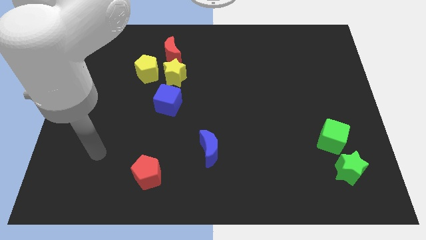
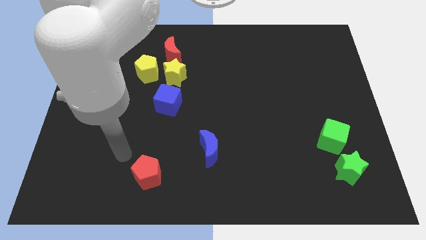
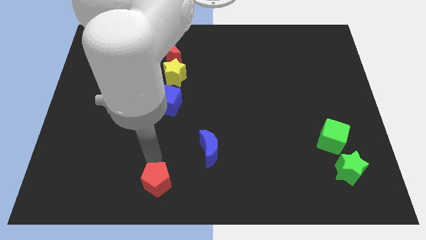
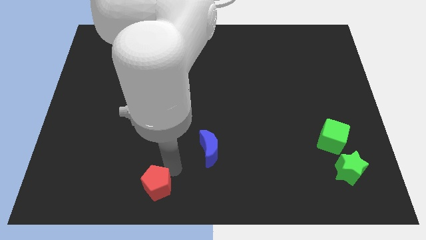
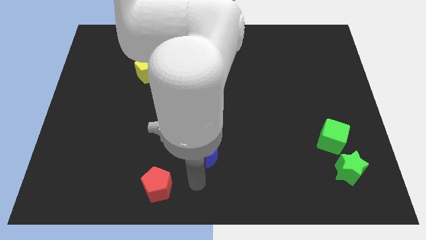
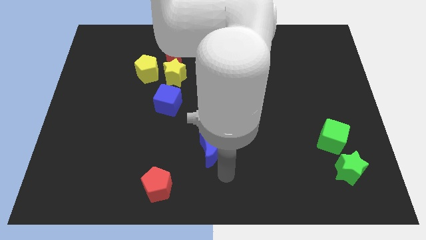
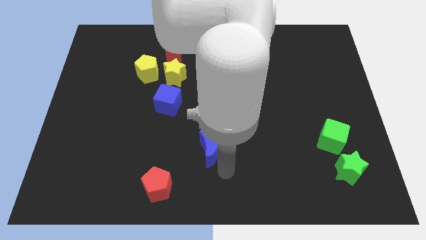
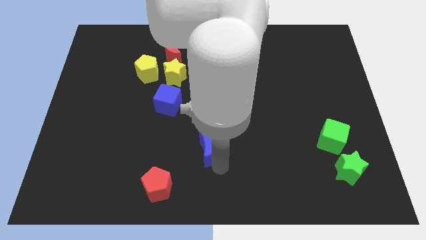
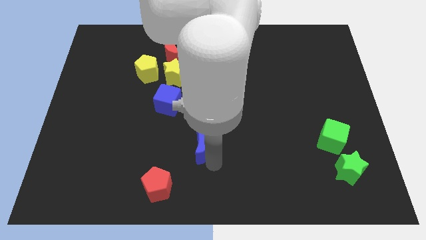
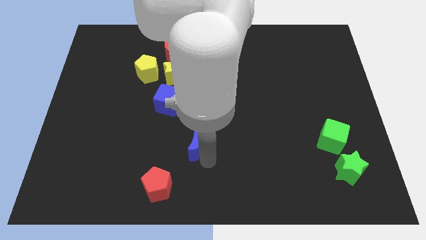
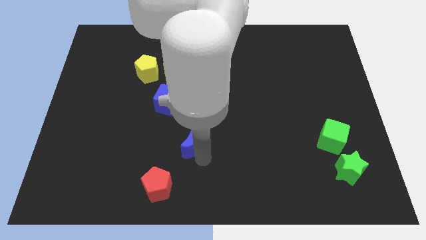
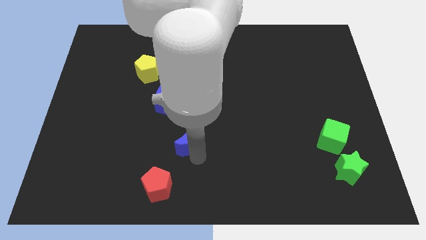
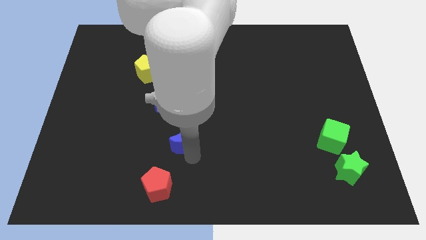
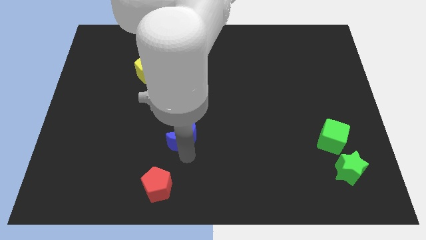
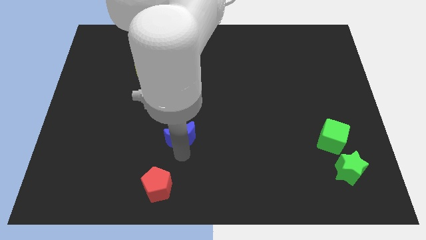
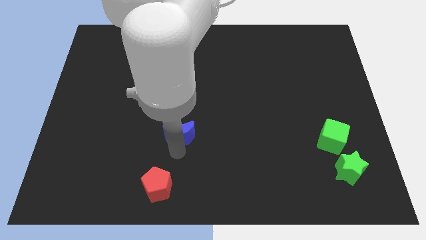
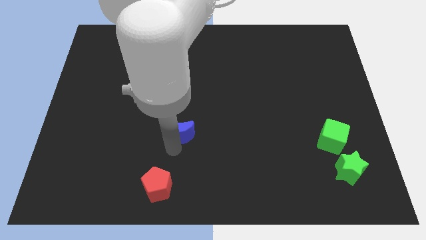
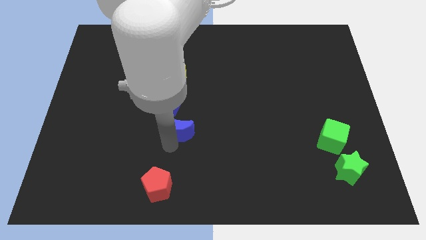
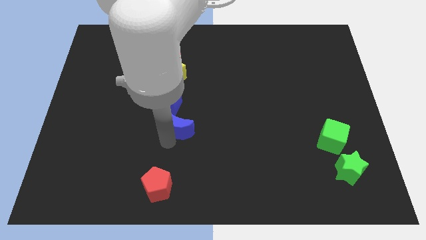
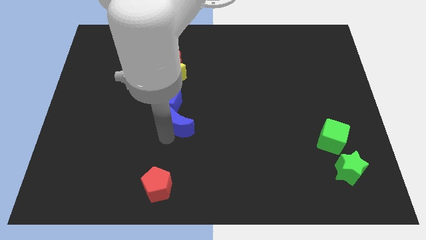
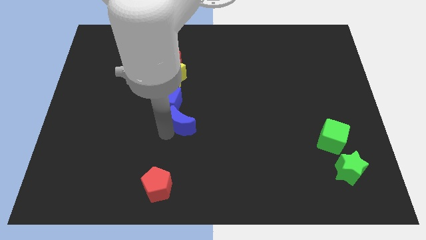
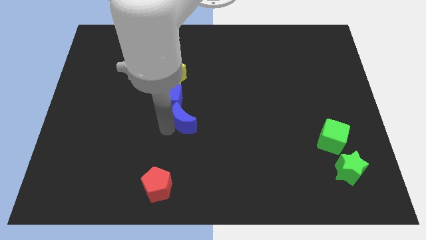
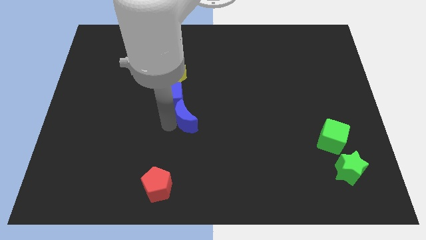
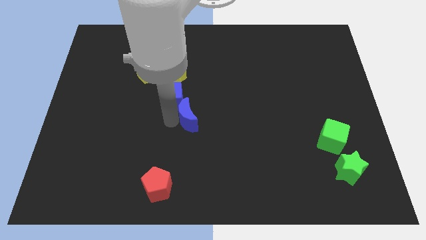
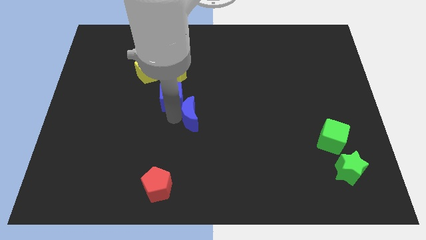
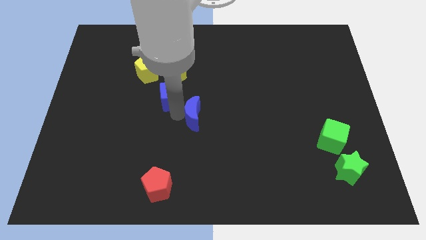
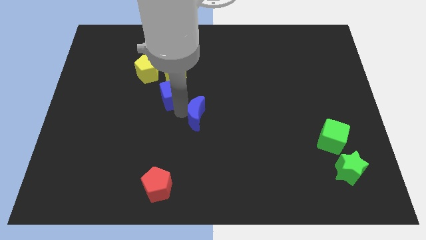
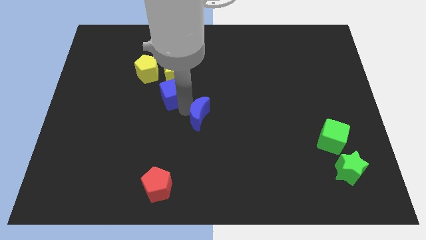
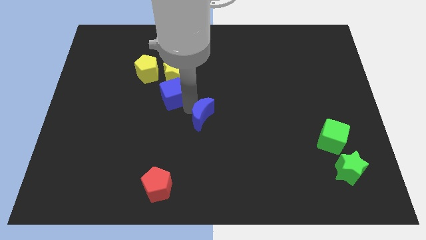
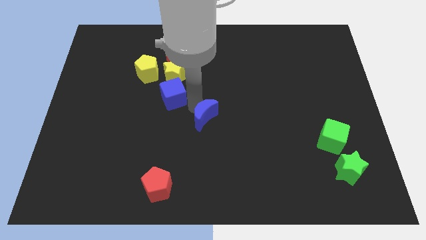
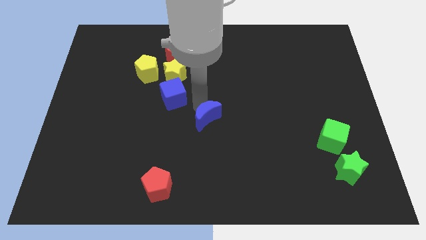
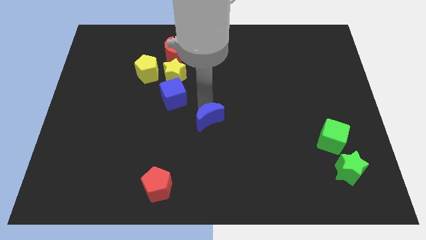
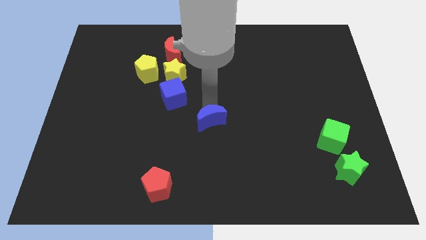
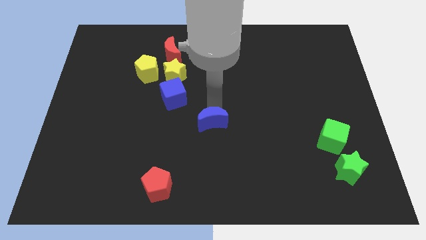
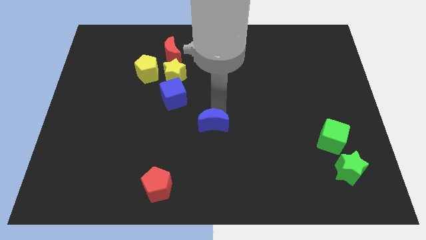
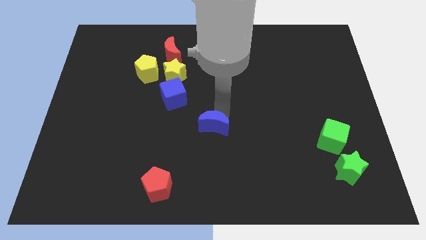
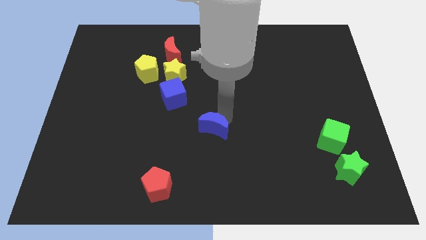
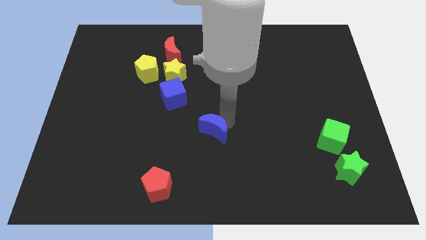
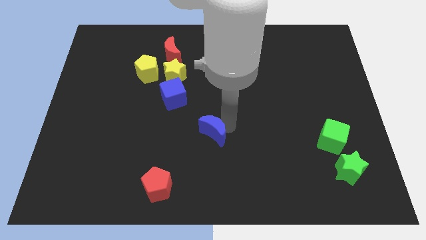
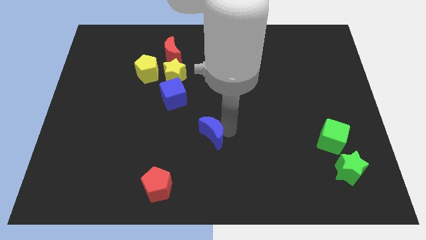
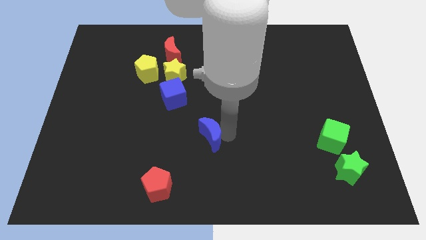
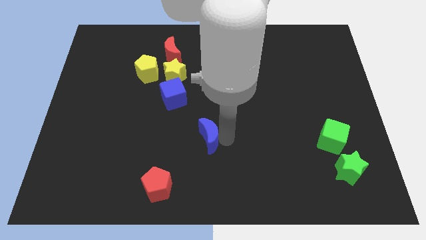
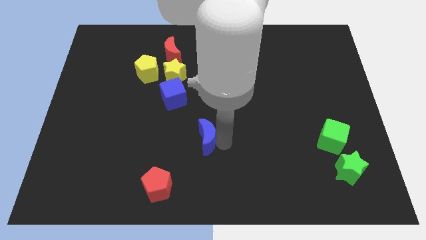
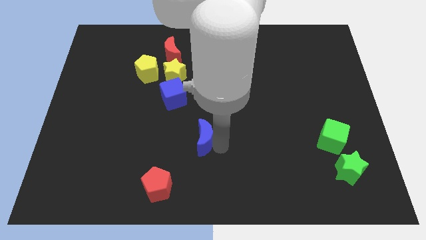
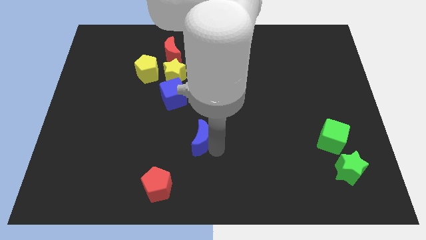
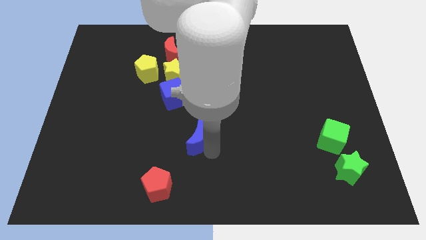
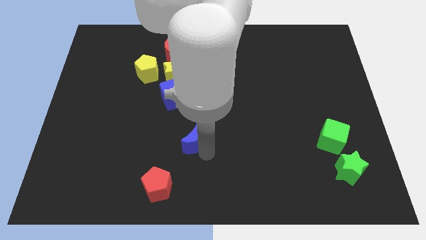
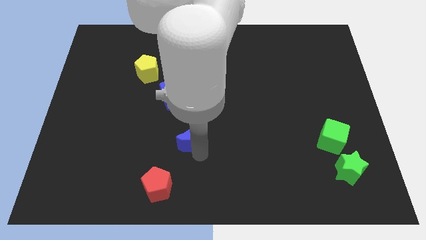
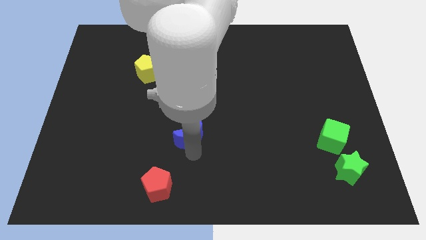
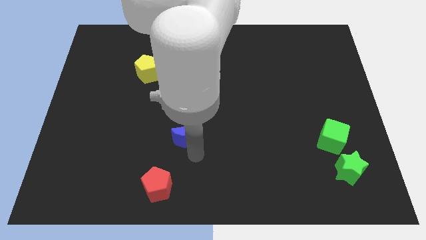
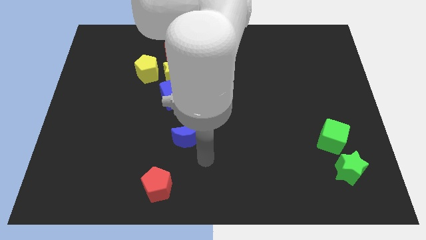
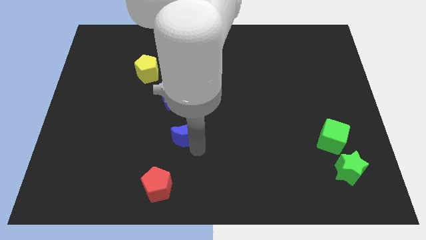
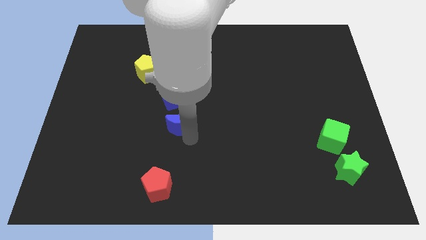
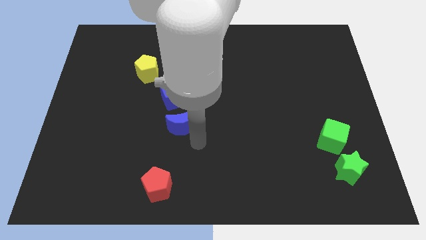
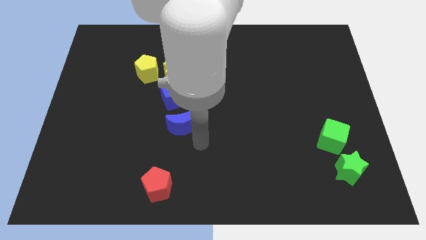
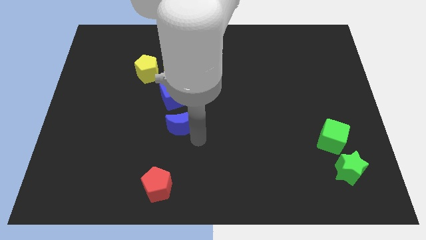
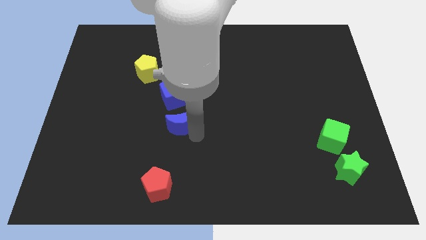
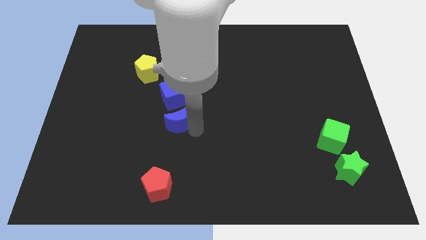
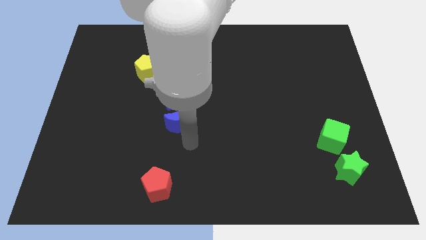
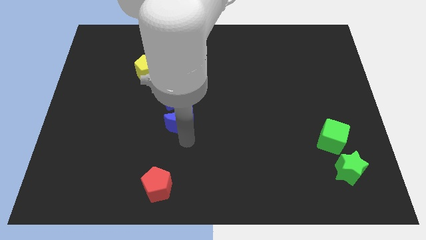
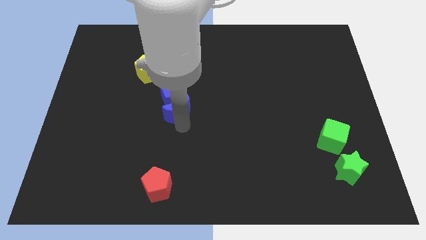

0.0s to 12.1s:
push the blue moon towards the blue cube

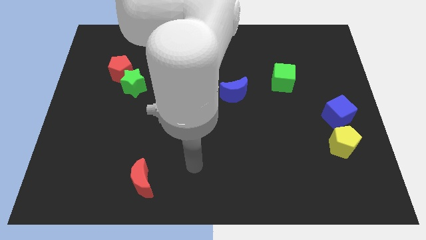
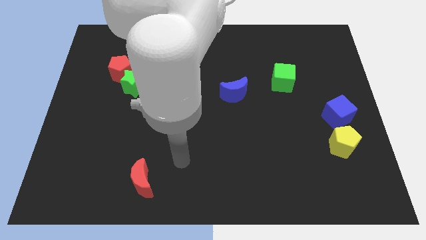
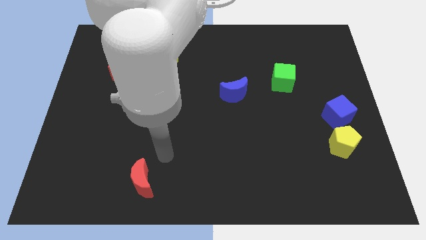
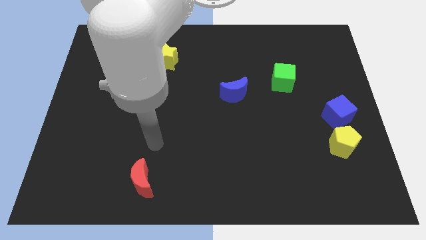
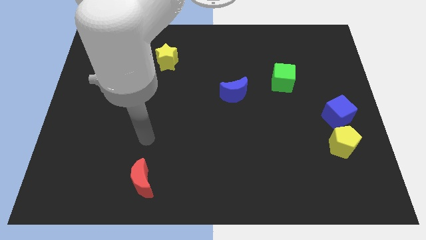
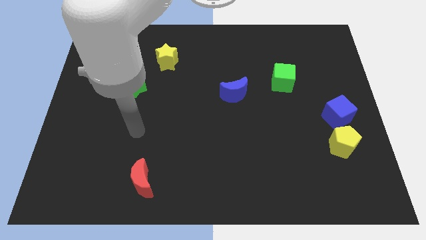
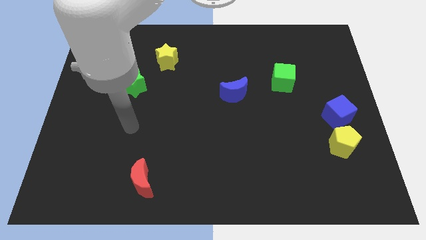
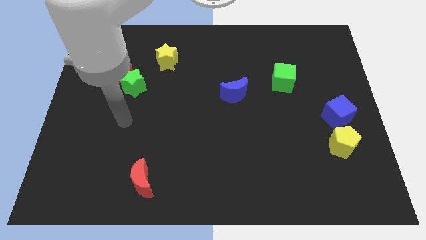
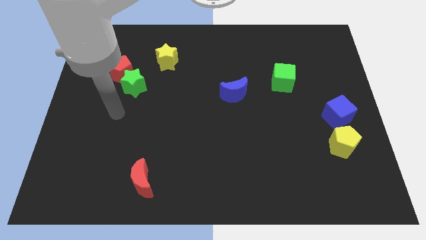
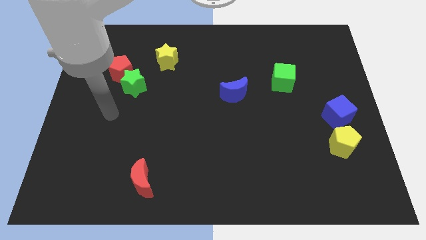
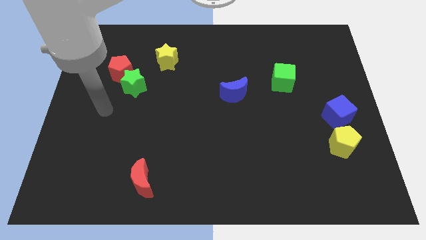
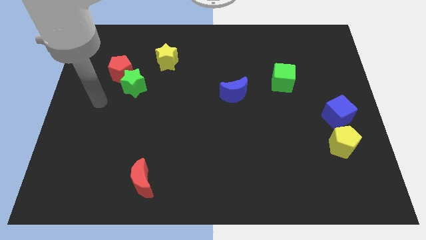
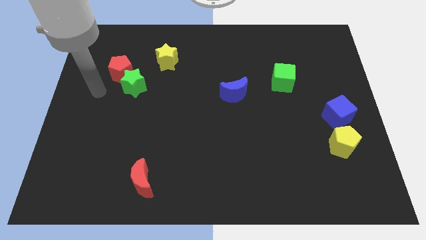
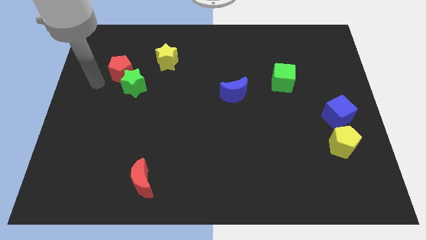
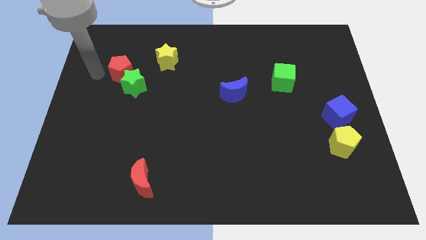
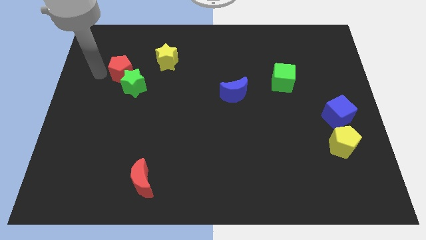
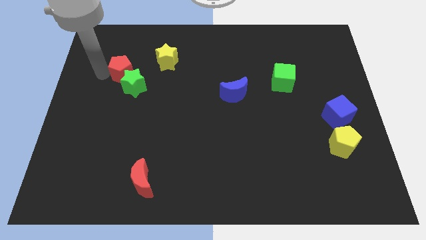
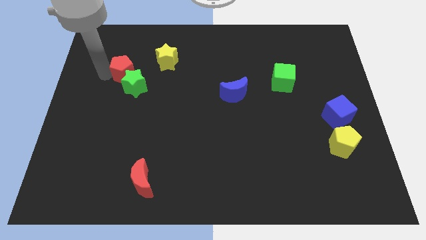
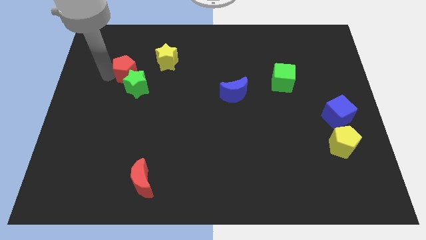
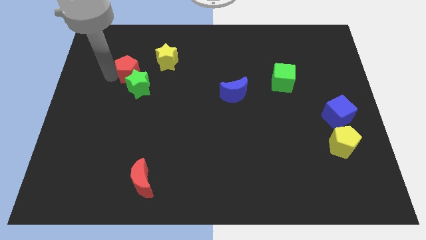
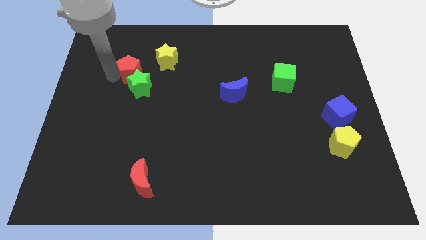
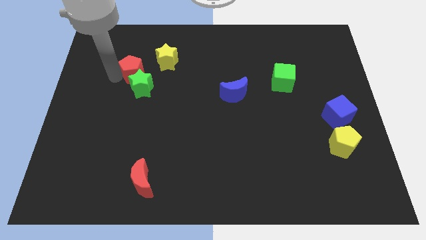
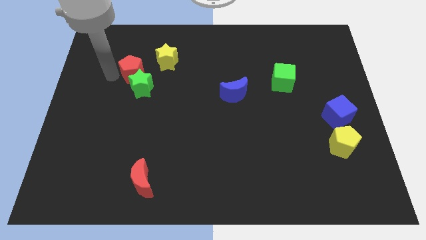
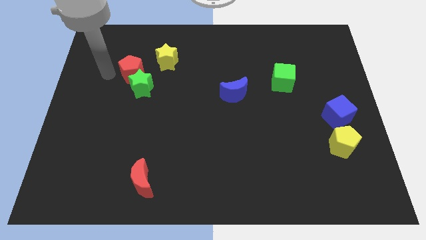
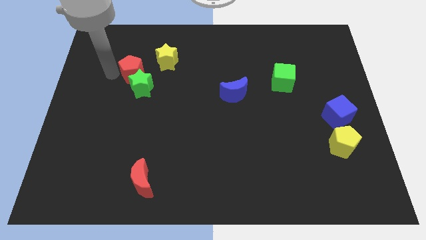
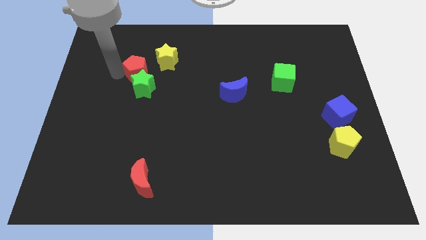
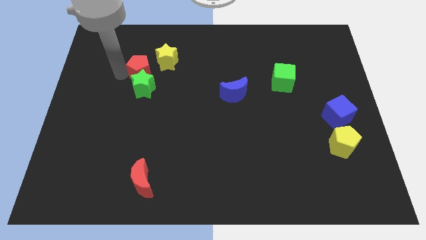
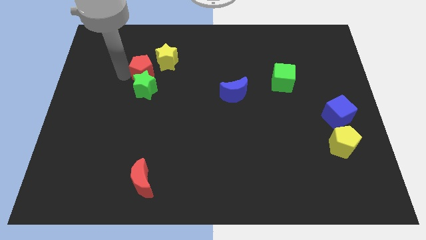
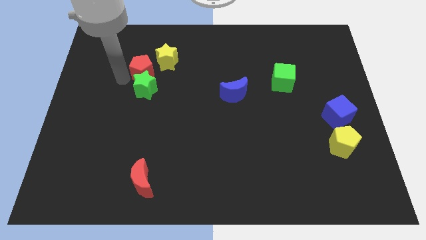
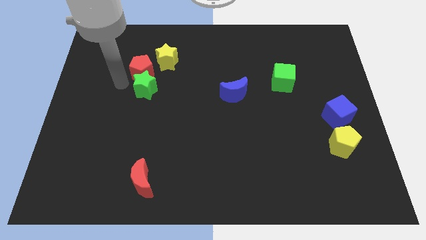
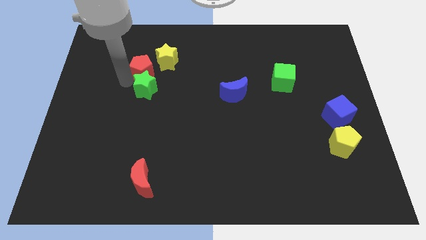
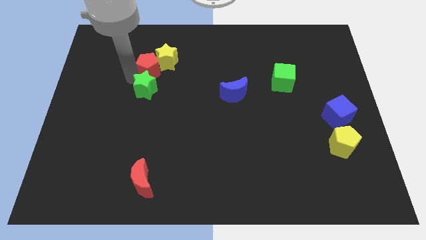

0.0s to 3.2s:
slide the red pentagon close to the yellow star
